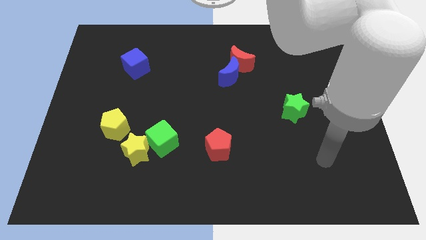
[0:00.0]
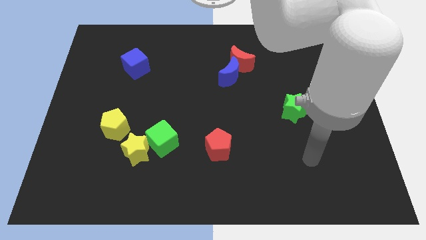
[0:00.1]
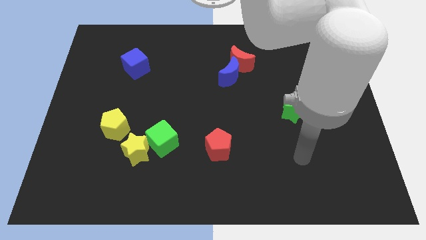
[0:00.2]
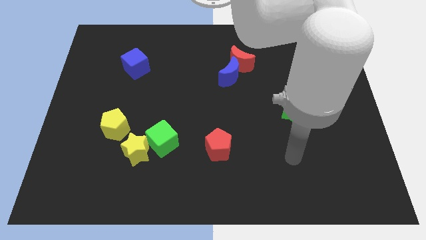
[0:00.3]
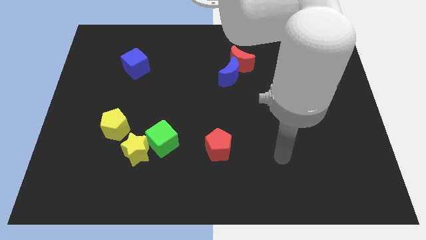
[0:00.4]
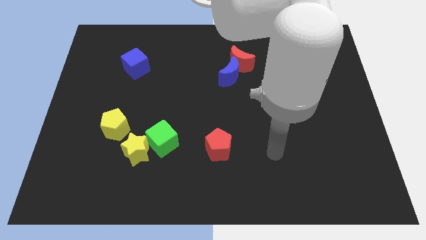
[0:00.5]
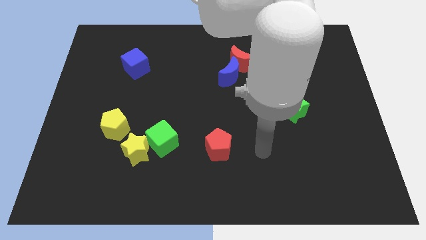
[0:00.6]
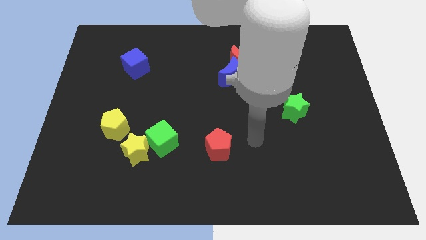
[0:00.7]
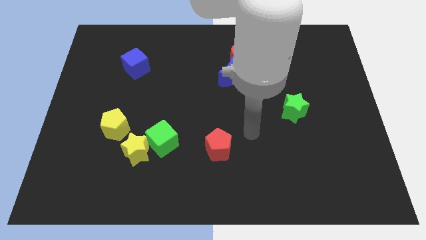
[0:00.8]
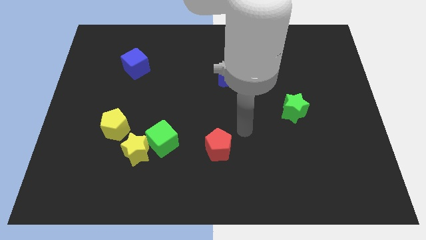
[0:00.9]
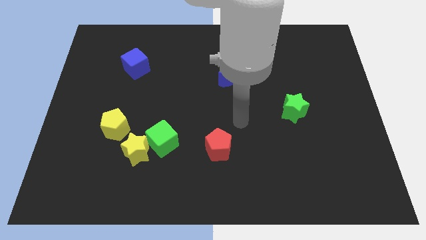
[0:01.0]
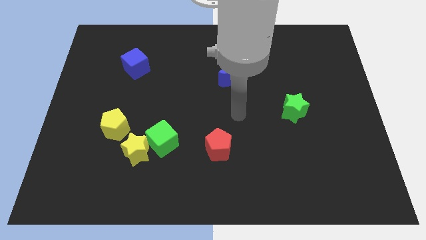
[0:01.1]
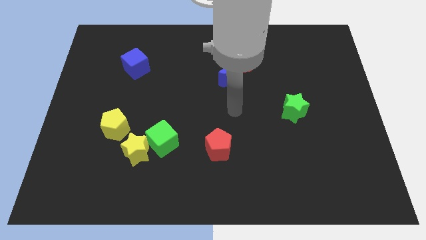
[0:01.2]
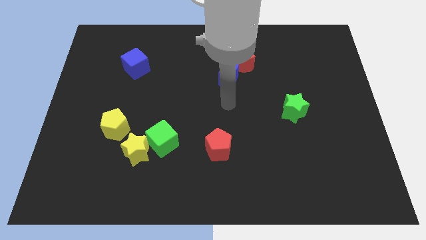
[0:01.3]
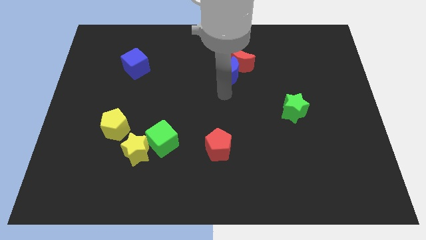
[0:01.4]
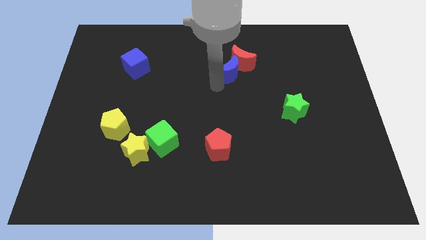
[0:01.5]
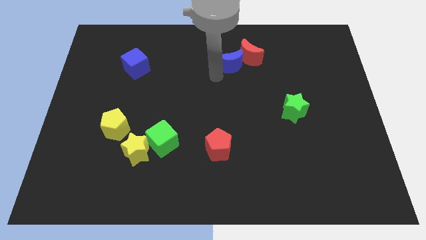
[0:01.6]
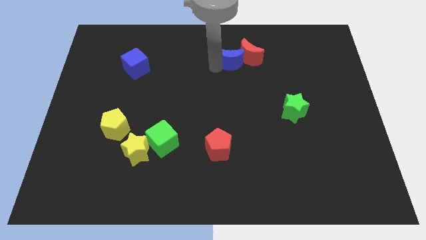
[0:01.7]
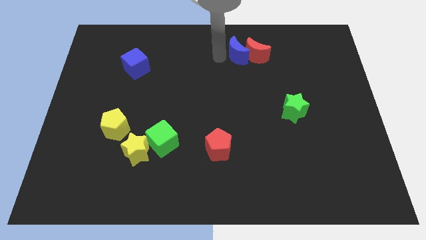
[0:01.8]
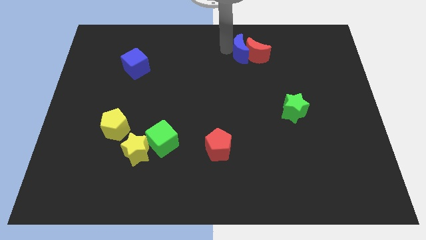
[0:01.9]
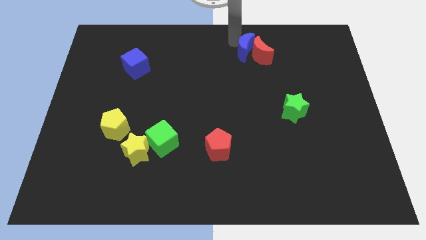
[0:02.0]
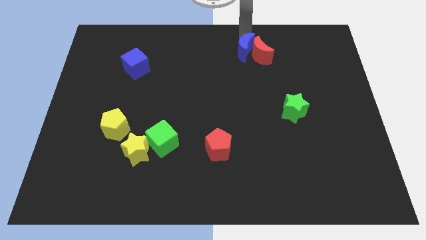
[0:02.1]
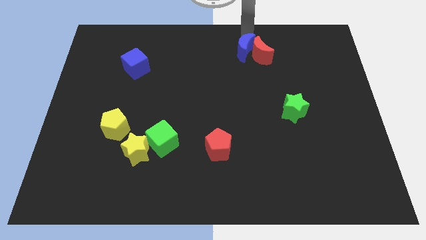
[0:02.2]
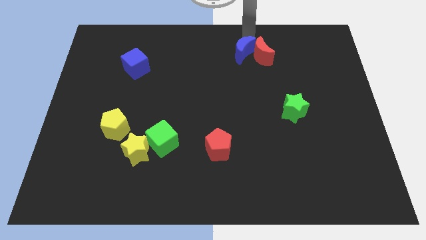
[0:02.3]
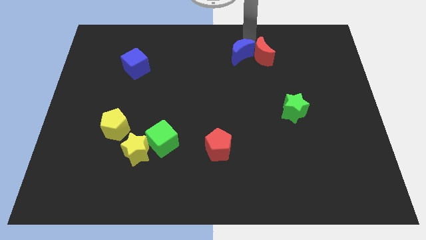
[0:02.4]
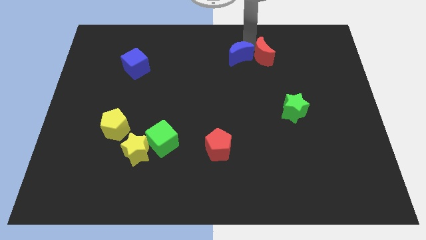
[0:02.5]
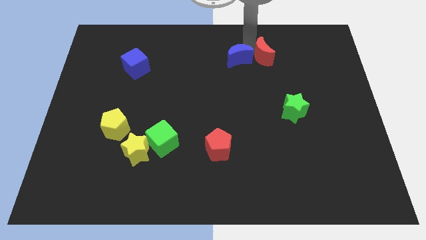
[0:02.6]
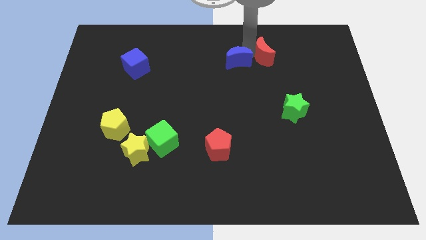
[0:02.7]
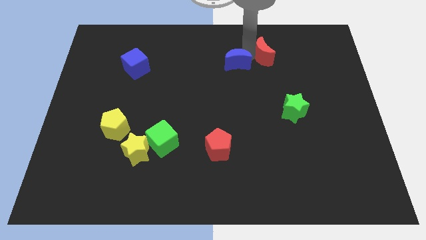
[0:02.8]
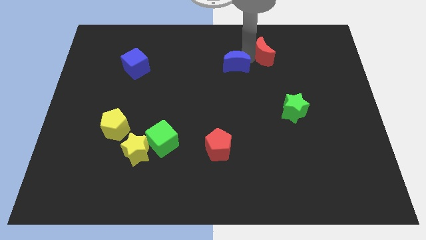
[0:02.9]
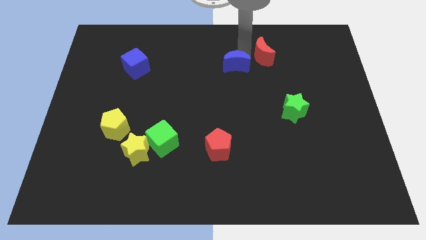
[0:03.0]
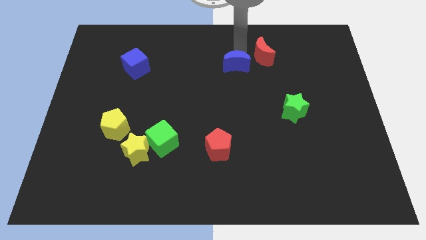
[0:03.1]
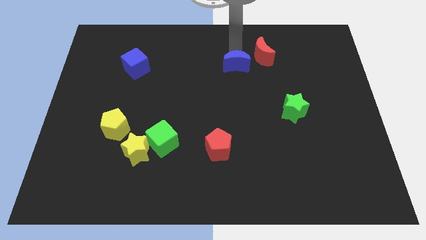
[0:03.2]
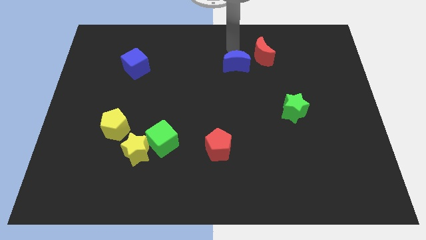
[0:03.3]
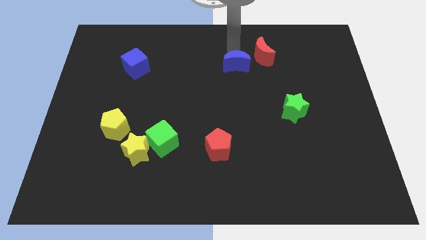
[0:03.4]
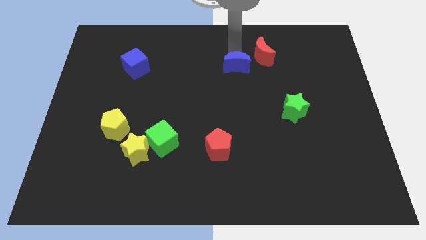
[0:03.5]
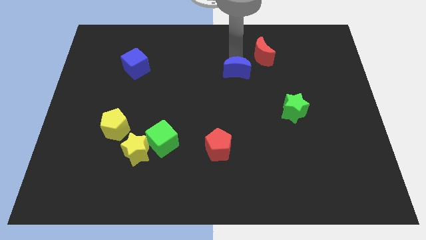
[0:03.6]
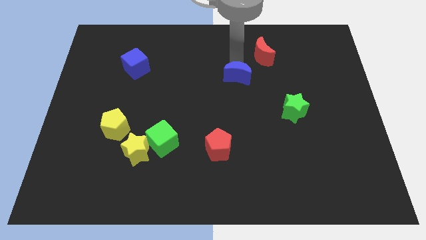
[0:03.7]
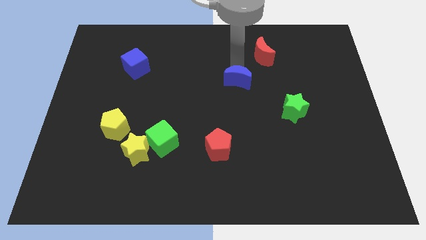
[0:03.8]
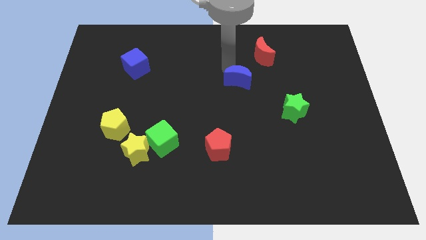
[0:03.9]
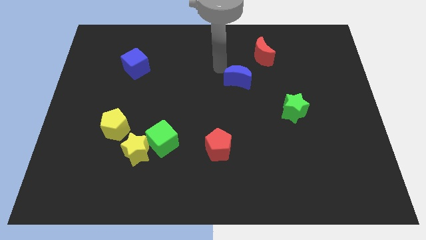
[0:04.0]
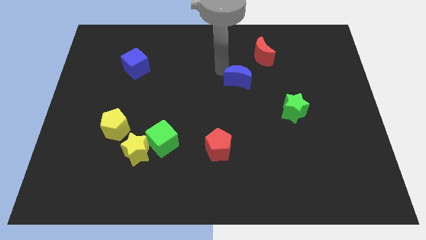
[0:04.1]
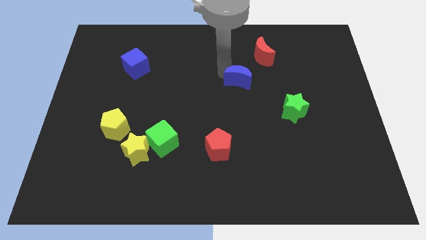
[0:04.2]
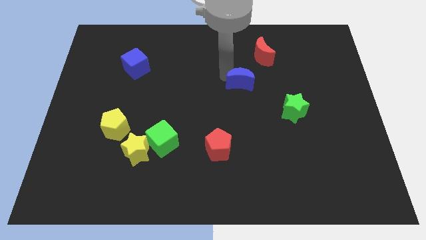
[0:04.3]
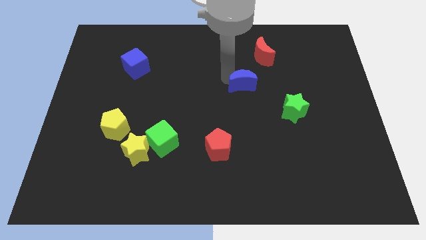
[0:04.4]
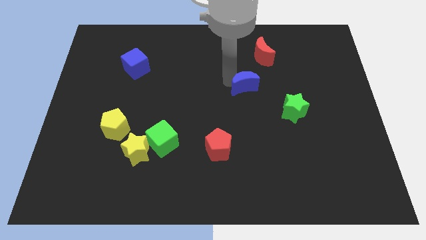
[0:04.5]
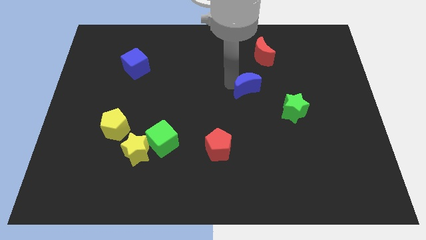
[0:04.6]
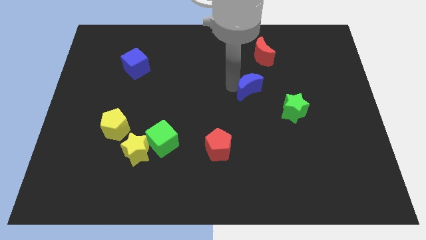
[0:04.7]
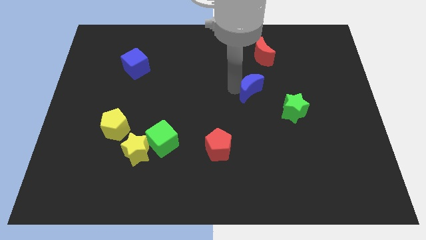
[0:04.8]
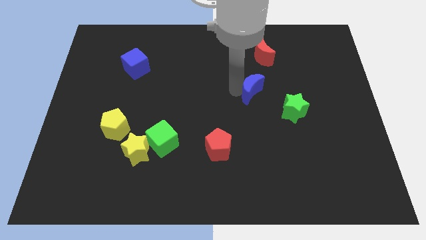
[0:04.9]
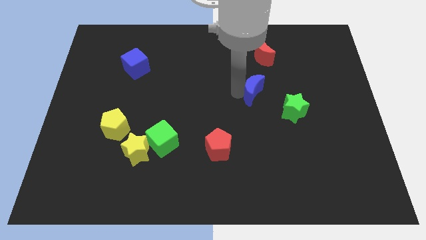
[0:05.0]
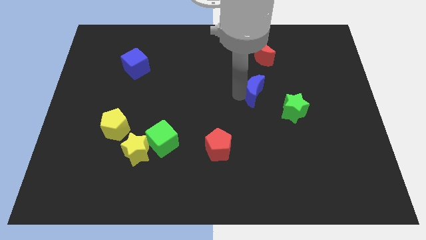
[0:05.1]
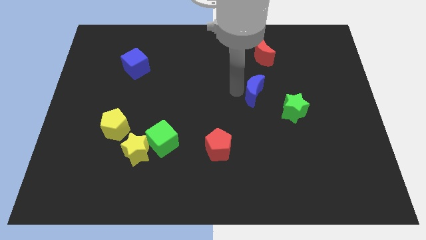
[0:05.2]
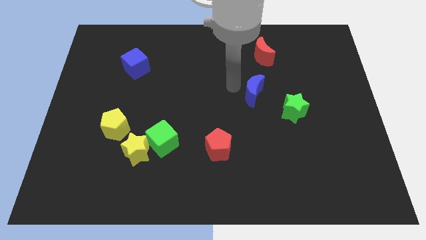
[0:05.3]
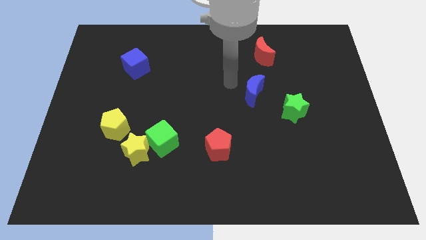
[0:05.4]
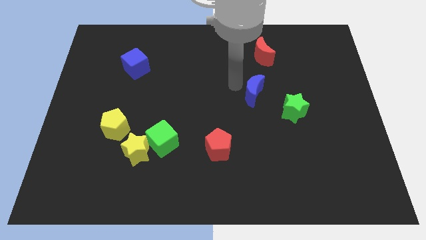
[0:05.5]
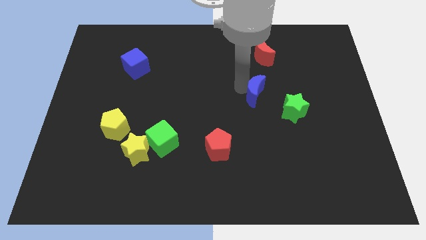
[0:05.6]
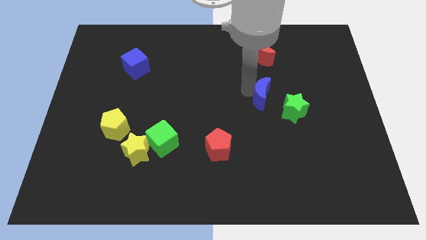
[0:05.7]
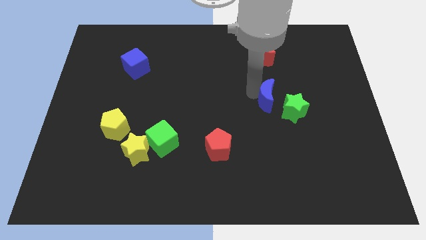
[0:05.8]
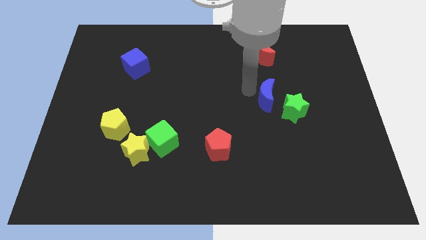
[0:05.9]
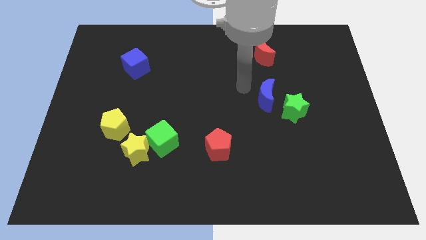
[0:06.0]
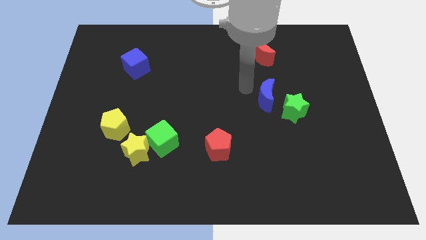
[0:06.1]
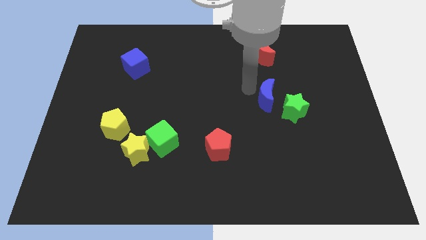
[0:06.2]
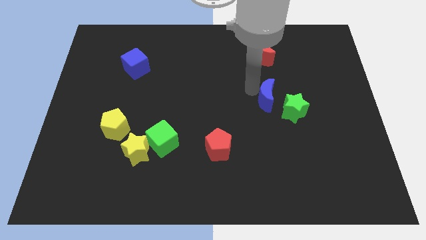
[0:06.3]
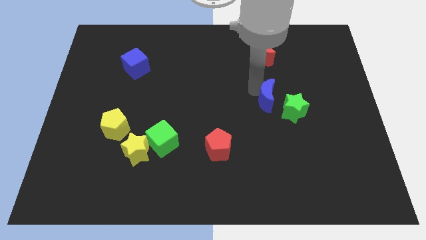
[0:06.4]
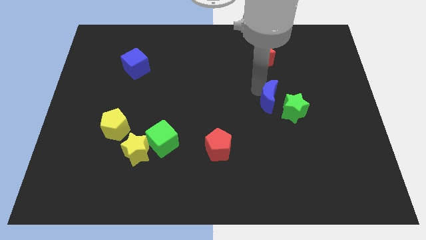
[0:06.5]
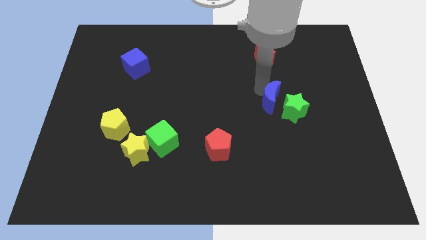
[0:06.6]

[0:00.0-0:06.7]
put the blue moon towards the green star
